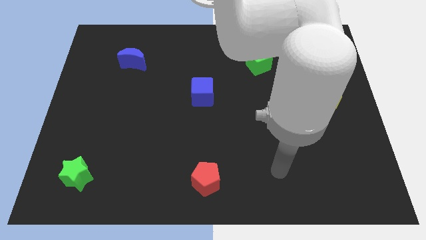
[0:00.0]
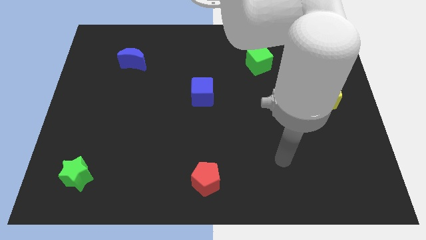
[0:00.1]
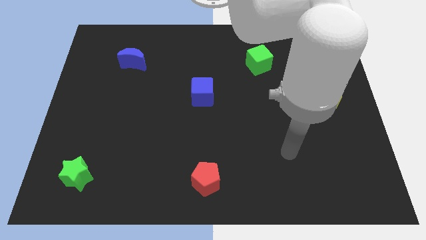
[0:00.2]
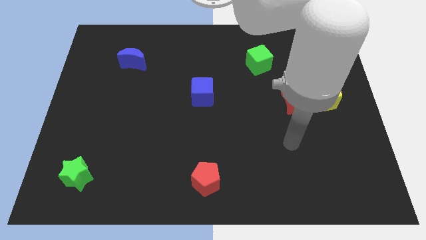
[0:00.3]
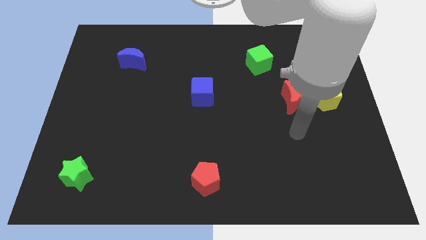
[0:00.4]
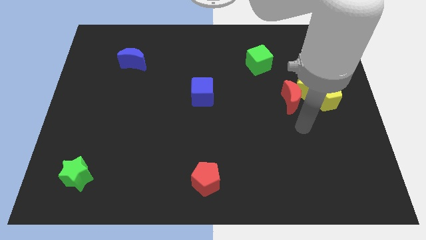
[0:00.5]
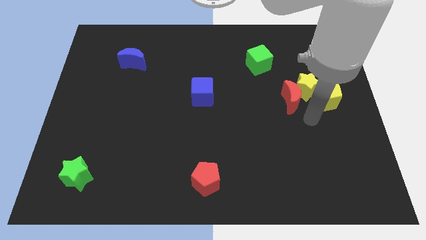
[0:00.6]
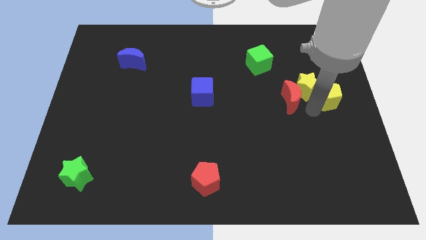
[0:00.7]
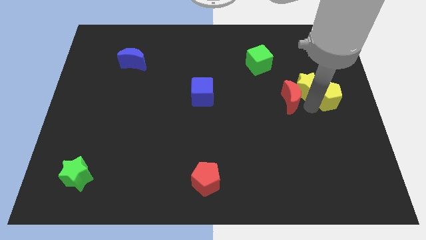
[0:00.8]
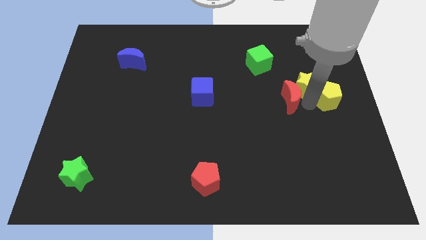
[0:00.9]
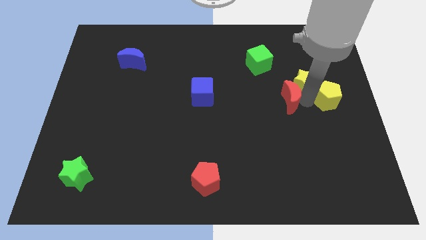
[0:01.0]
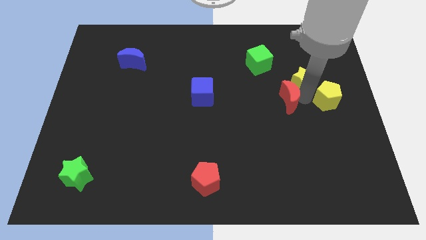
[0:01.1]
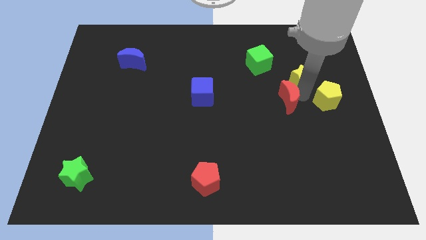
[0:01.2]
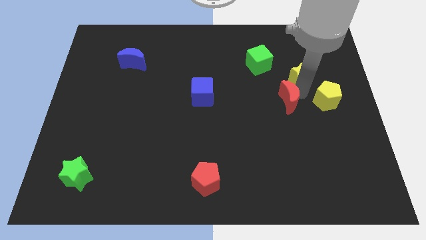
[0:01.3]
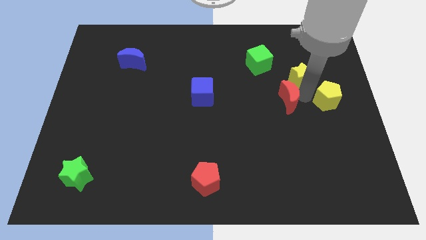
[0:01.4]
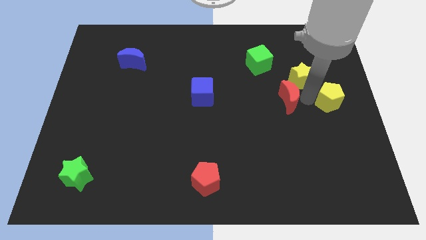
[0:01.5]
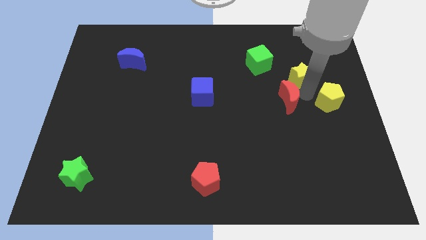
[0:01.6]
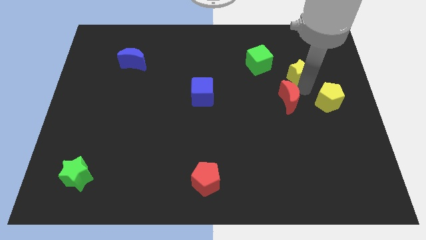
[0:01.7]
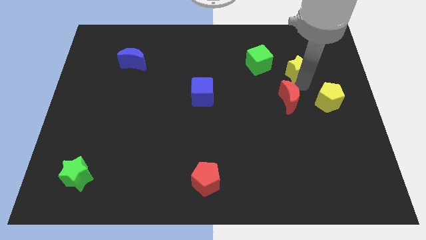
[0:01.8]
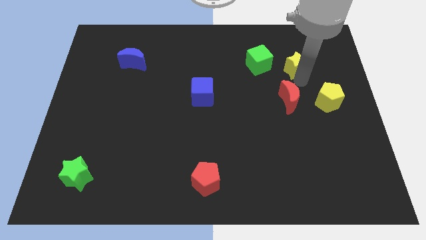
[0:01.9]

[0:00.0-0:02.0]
move the yellow star away from the red moon and yellow pentagon

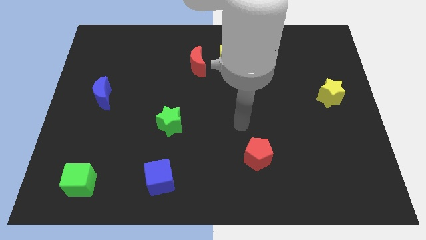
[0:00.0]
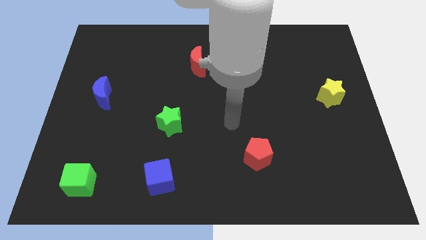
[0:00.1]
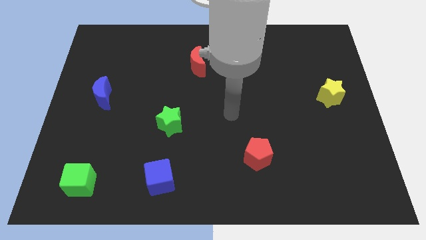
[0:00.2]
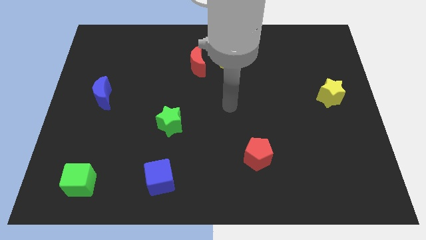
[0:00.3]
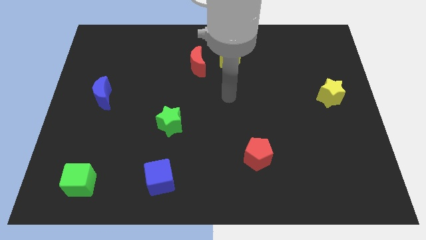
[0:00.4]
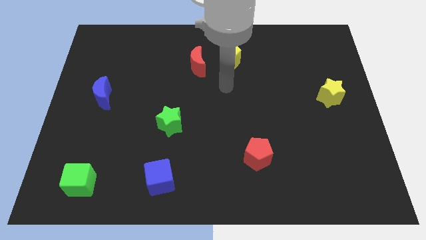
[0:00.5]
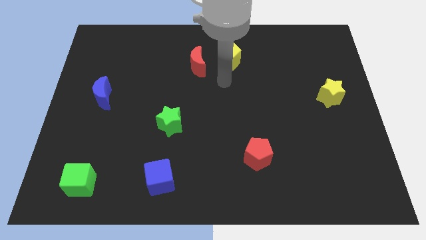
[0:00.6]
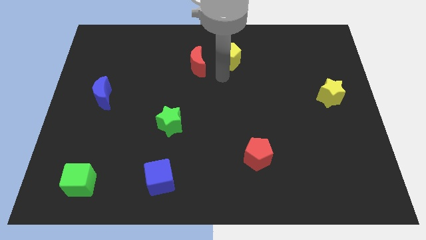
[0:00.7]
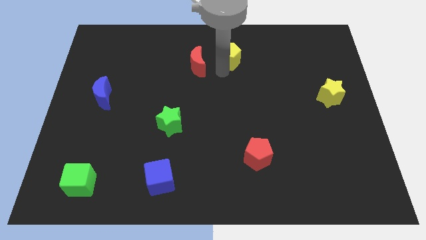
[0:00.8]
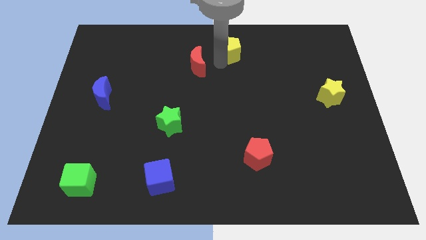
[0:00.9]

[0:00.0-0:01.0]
pull the red moon apart from the yellow pentagon

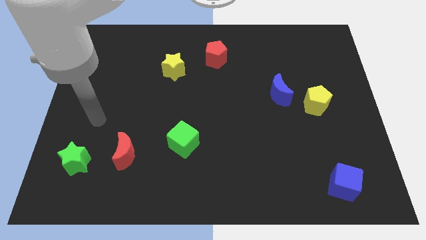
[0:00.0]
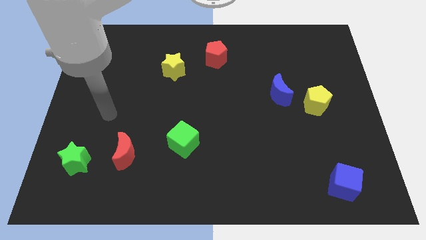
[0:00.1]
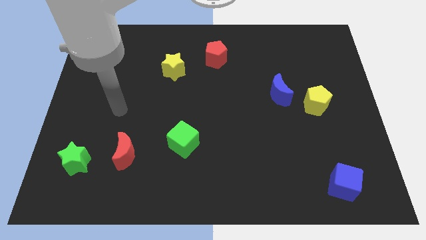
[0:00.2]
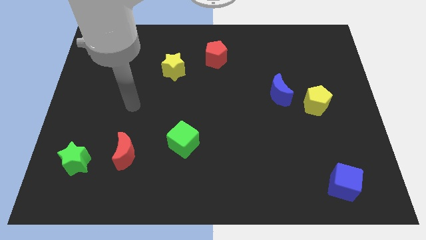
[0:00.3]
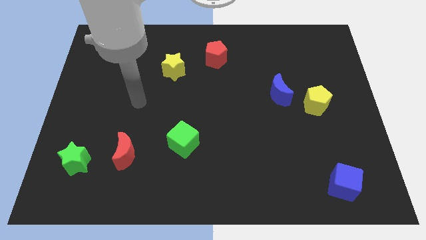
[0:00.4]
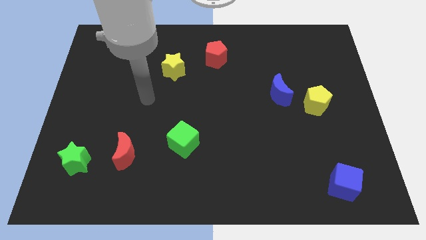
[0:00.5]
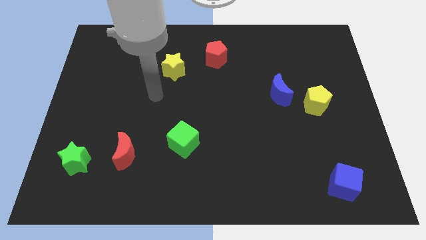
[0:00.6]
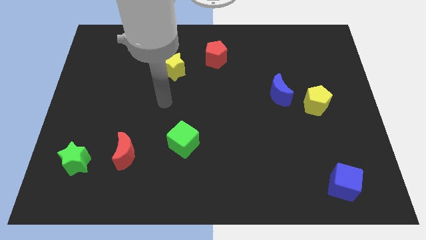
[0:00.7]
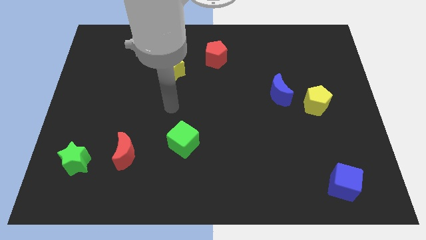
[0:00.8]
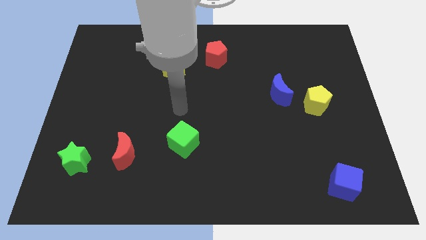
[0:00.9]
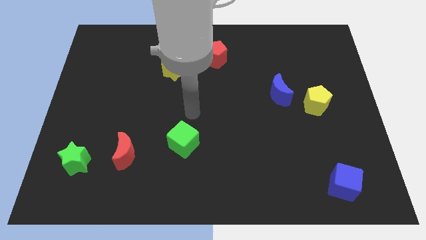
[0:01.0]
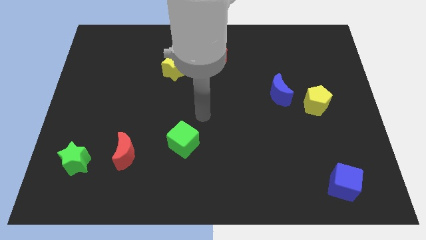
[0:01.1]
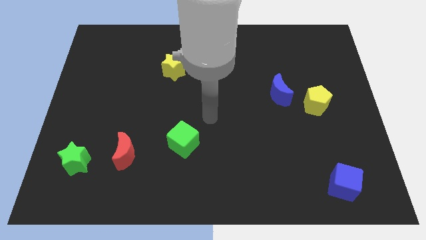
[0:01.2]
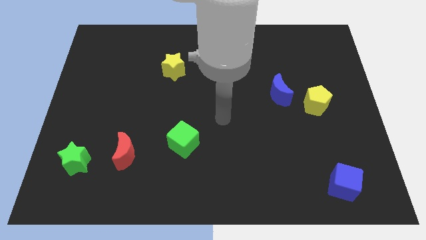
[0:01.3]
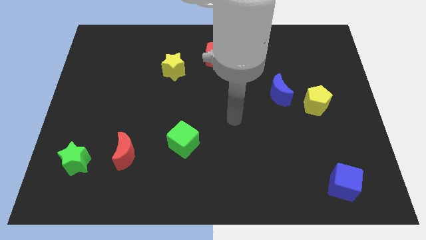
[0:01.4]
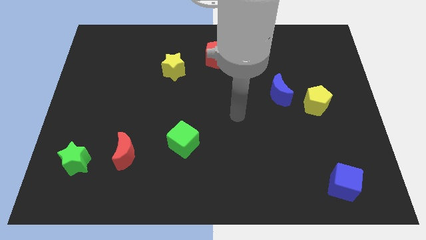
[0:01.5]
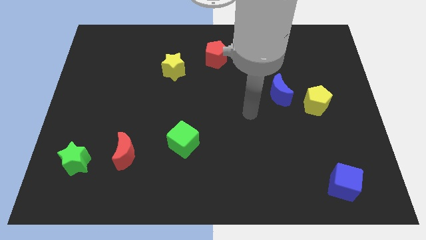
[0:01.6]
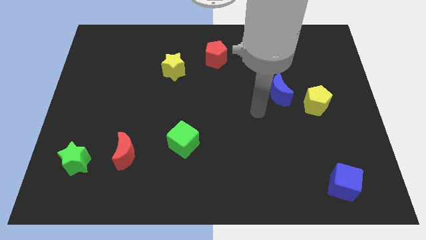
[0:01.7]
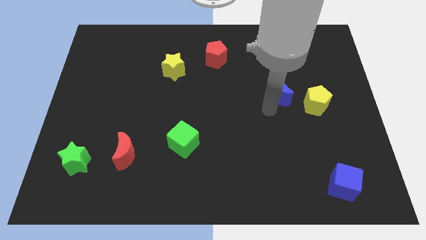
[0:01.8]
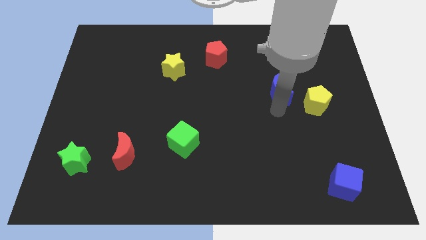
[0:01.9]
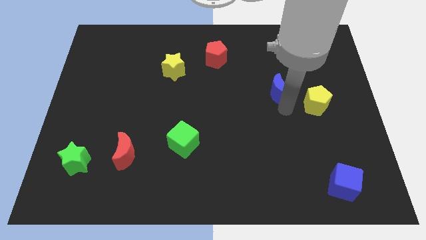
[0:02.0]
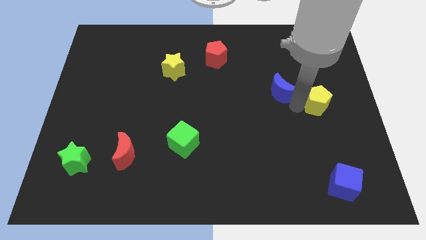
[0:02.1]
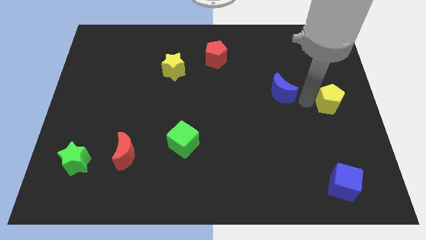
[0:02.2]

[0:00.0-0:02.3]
separate the blue moon from the yellow pentagon

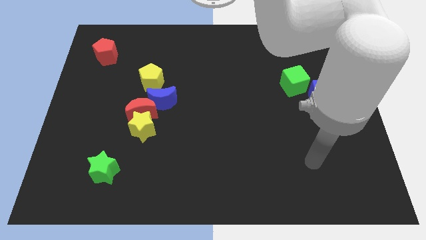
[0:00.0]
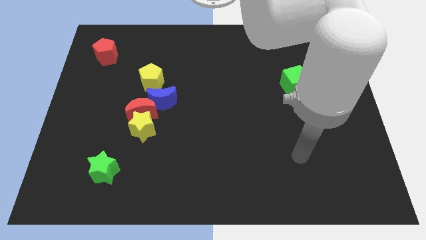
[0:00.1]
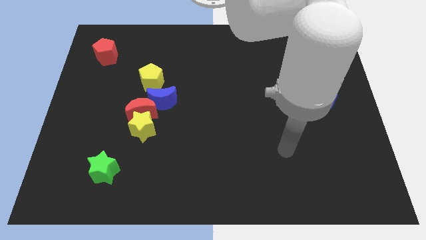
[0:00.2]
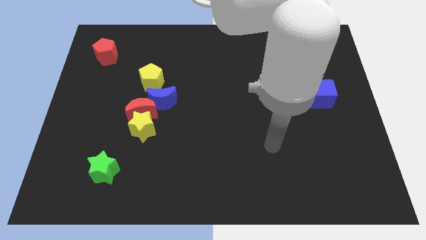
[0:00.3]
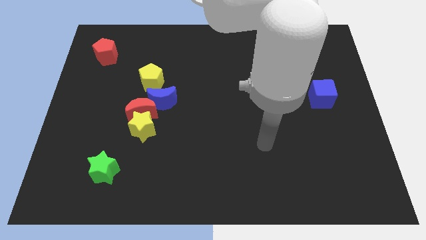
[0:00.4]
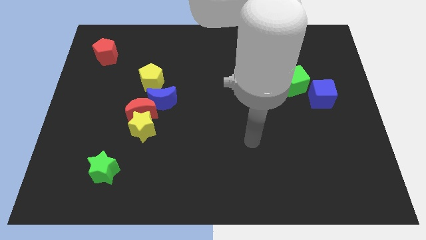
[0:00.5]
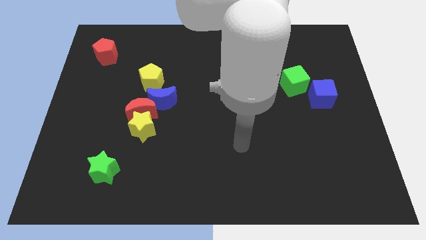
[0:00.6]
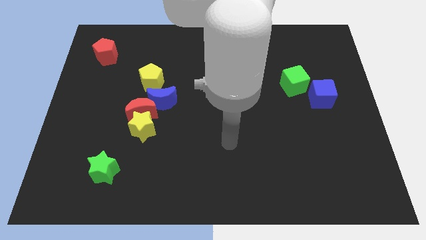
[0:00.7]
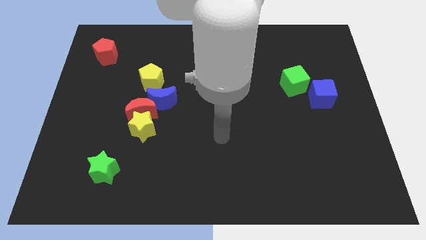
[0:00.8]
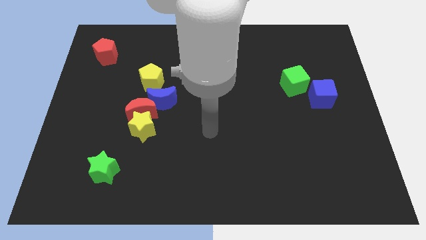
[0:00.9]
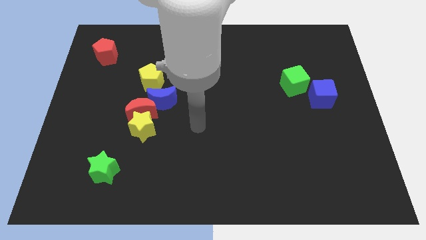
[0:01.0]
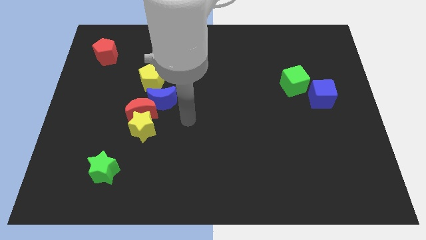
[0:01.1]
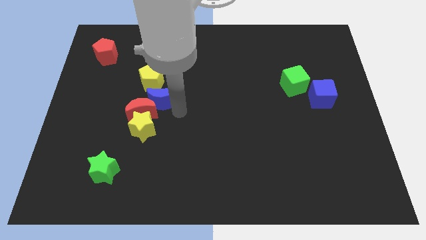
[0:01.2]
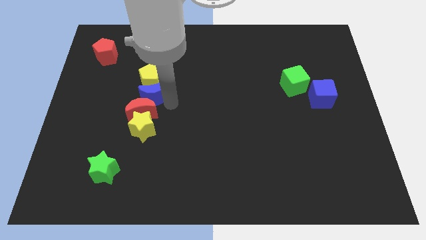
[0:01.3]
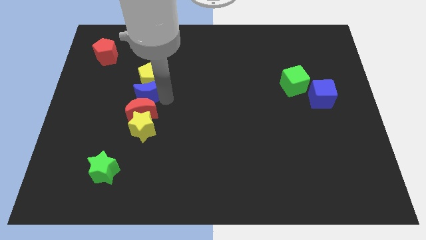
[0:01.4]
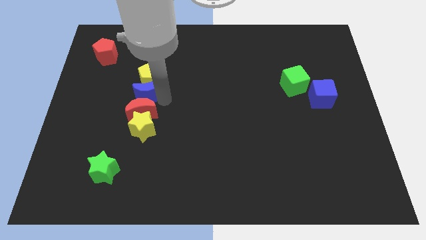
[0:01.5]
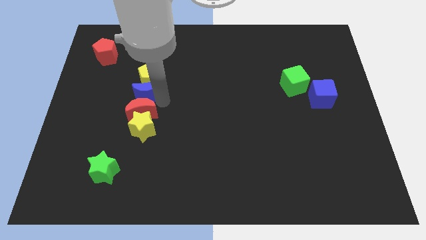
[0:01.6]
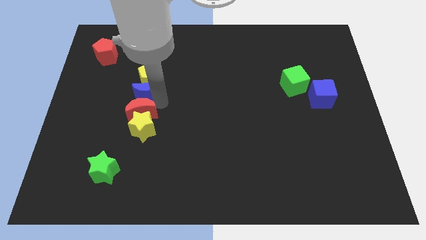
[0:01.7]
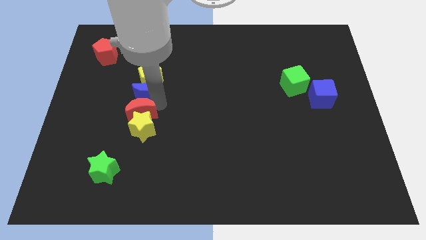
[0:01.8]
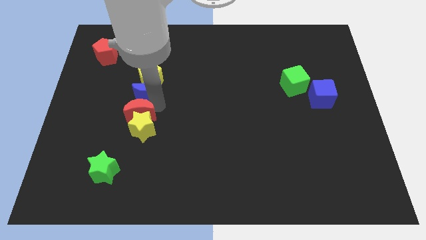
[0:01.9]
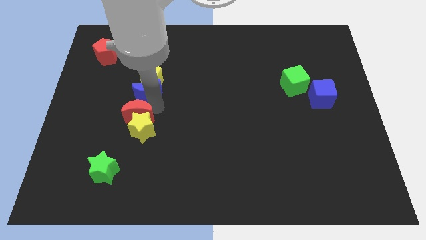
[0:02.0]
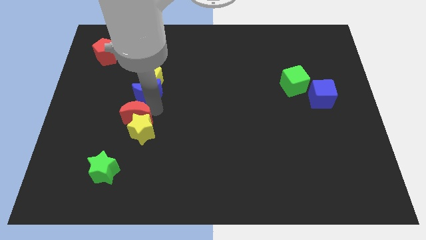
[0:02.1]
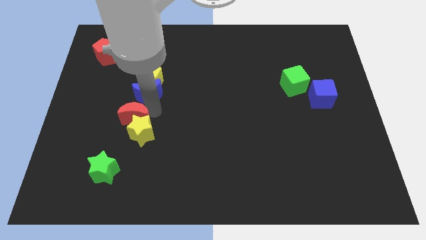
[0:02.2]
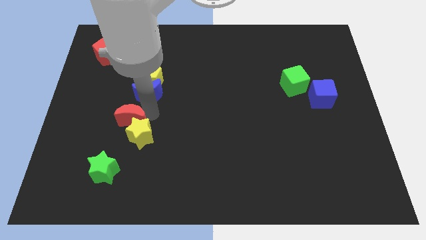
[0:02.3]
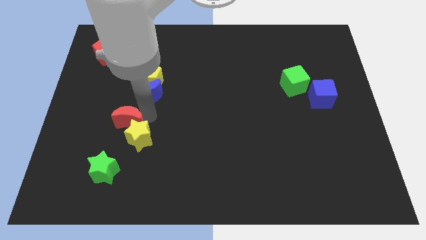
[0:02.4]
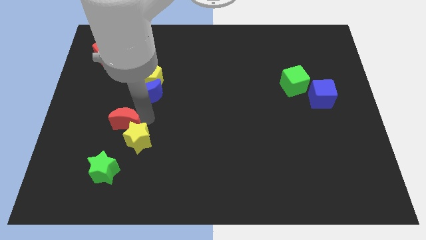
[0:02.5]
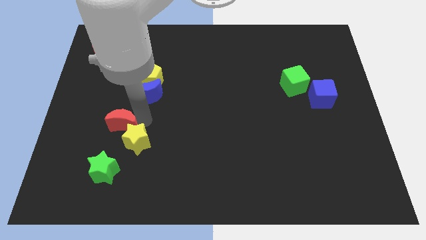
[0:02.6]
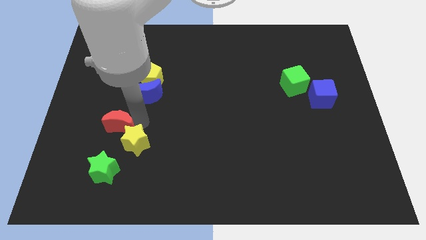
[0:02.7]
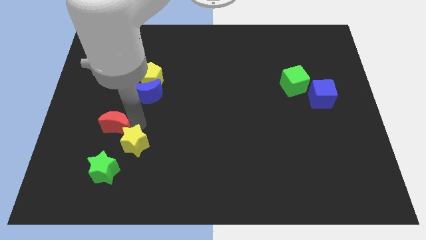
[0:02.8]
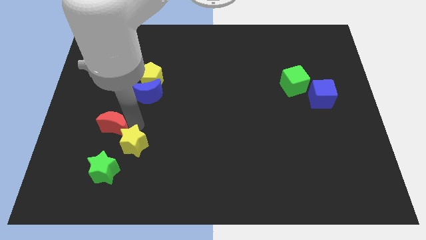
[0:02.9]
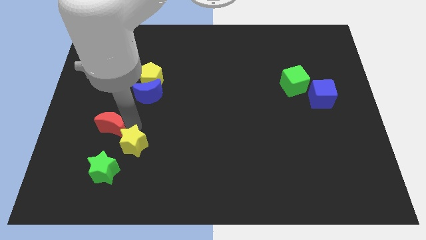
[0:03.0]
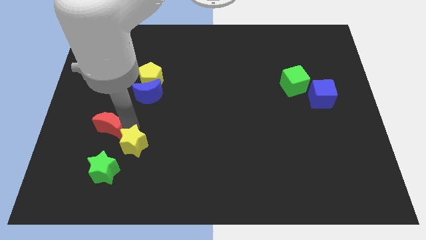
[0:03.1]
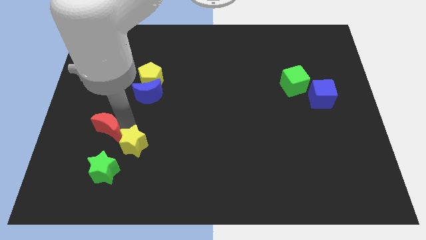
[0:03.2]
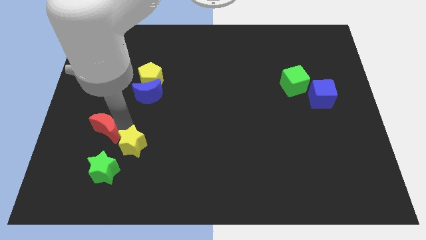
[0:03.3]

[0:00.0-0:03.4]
move the red moon away from the group of blocks

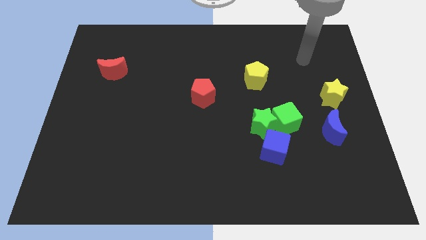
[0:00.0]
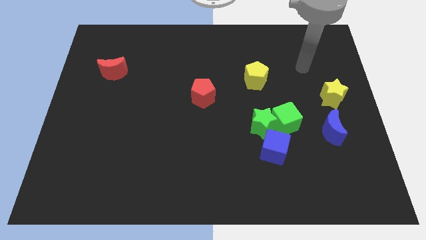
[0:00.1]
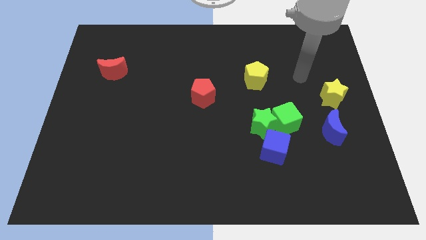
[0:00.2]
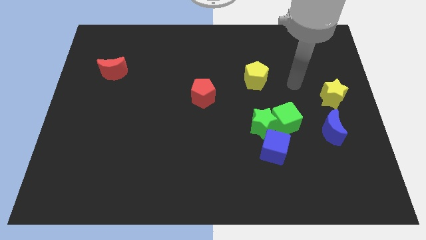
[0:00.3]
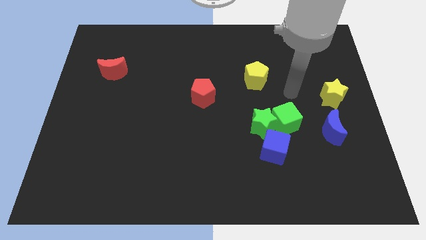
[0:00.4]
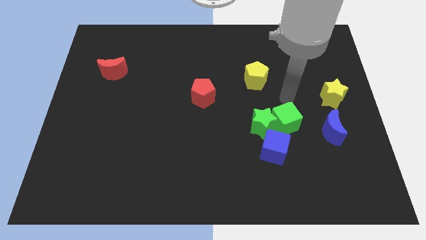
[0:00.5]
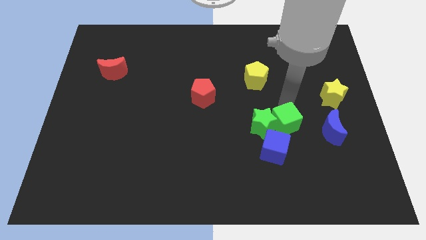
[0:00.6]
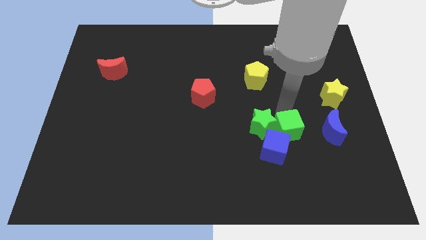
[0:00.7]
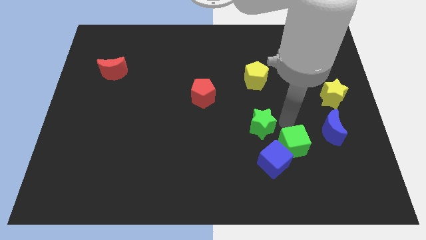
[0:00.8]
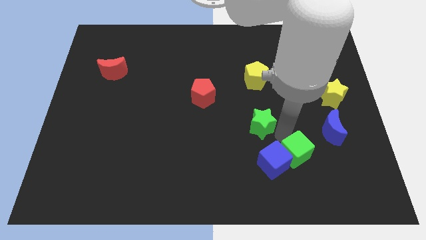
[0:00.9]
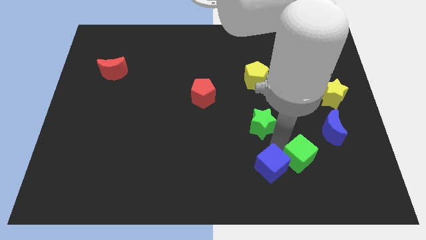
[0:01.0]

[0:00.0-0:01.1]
separate the green star from the green cube and blue cube
